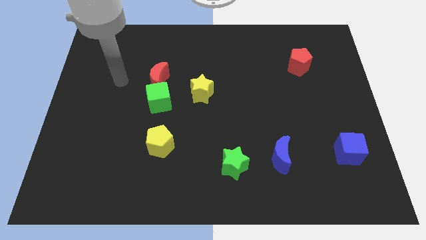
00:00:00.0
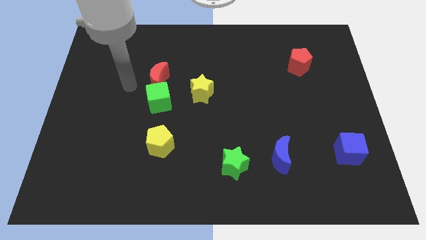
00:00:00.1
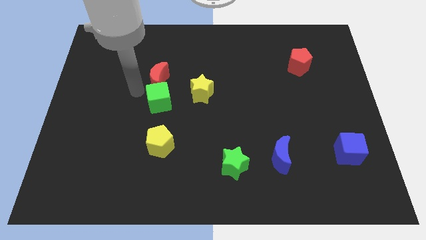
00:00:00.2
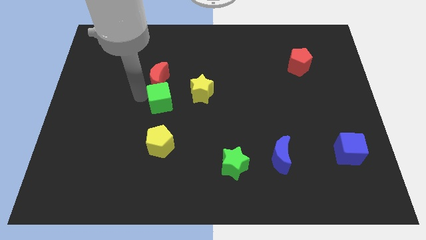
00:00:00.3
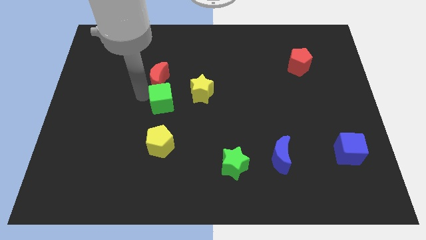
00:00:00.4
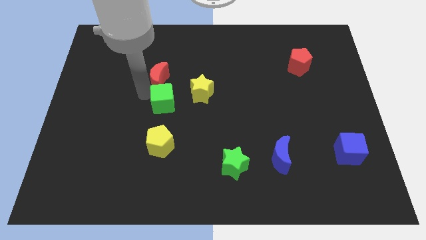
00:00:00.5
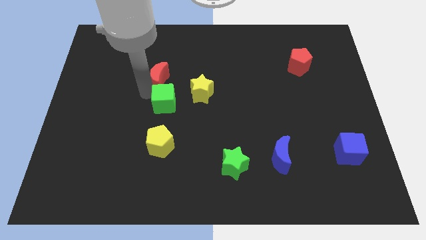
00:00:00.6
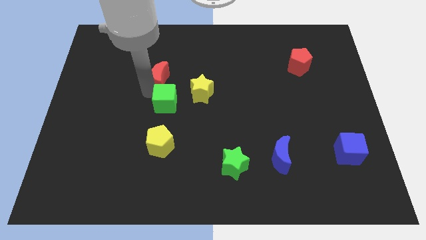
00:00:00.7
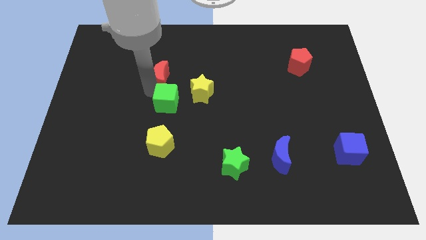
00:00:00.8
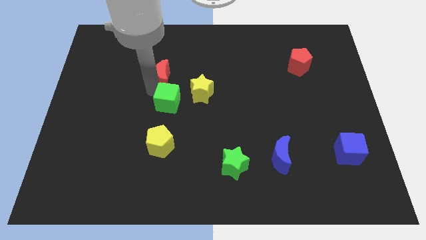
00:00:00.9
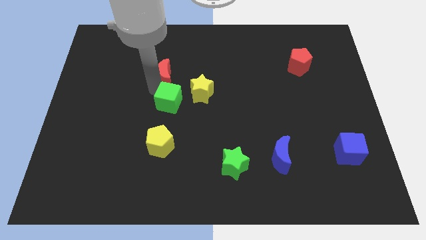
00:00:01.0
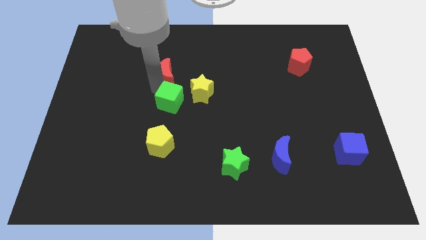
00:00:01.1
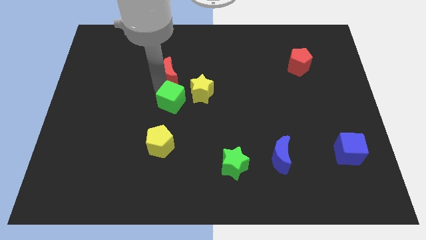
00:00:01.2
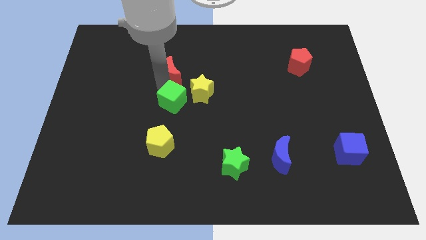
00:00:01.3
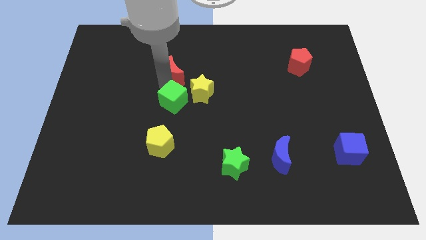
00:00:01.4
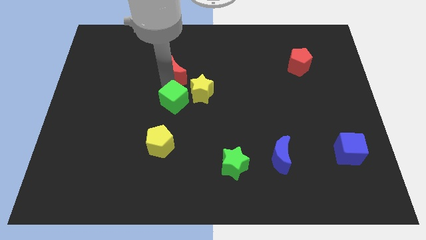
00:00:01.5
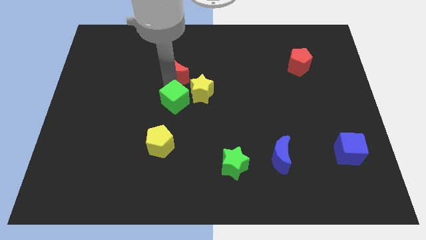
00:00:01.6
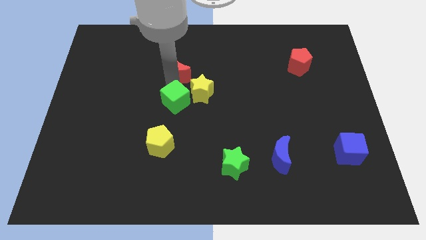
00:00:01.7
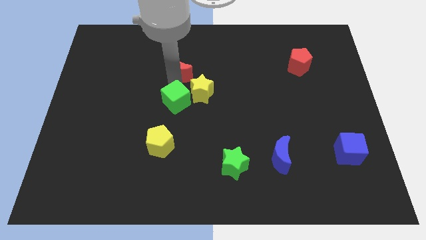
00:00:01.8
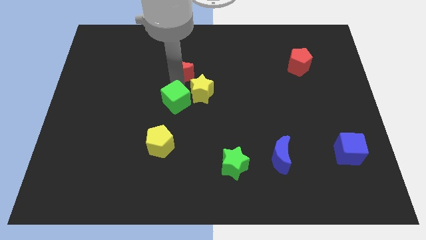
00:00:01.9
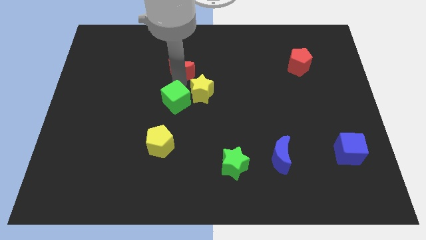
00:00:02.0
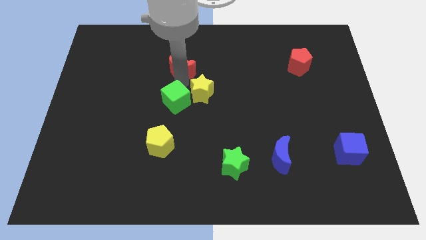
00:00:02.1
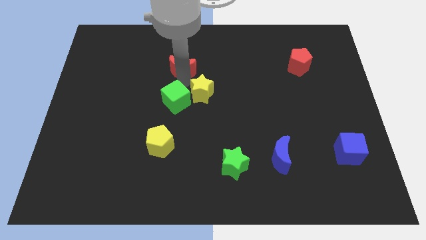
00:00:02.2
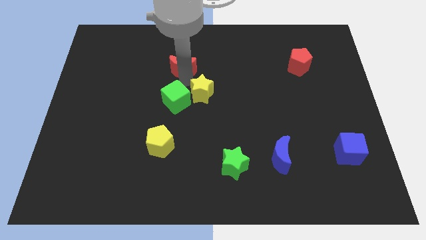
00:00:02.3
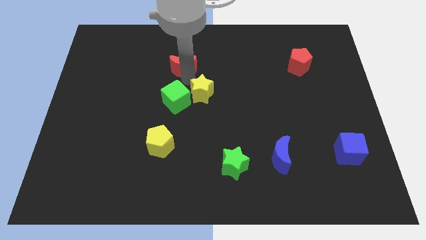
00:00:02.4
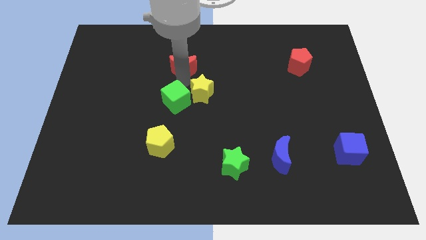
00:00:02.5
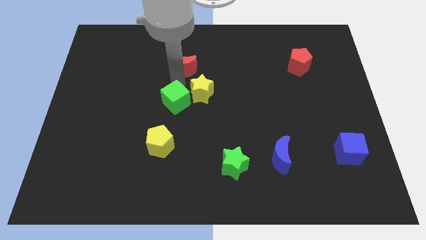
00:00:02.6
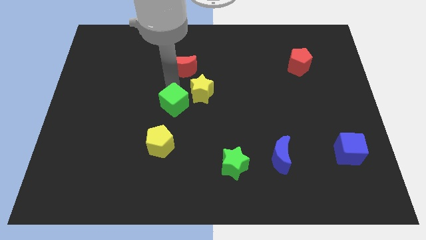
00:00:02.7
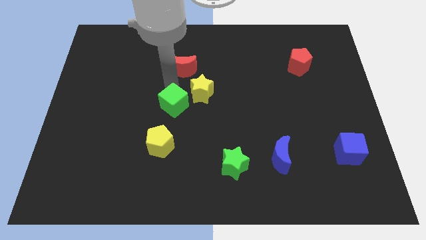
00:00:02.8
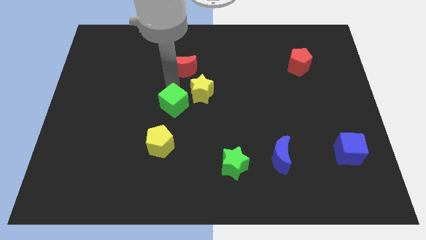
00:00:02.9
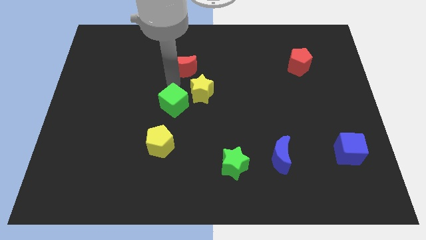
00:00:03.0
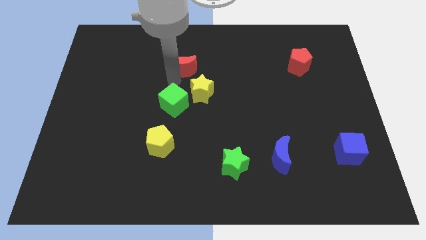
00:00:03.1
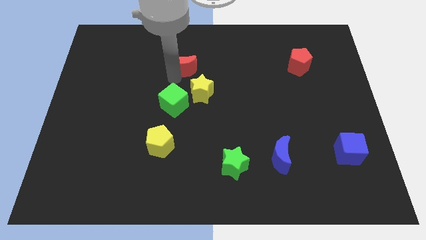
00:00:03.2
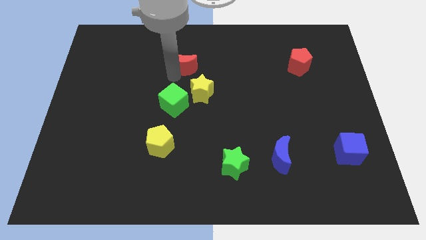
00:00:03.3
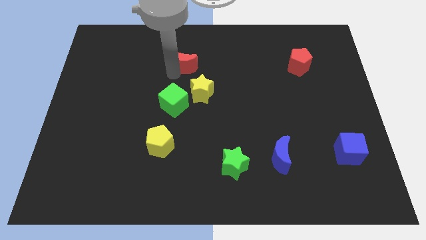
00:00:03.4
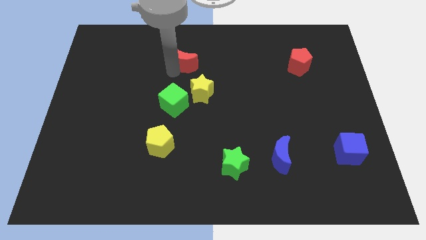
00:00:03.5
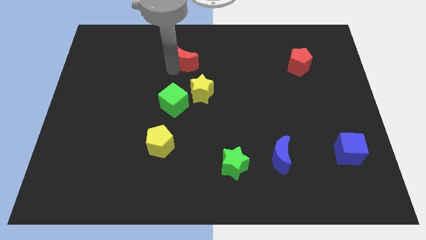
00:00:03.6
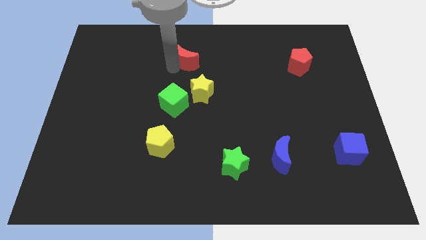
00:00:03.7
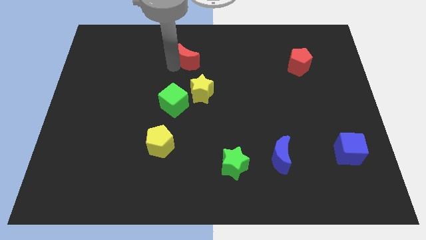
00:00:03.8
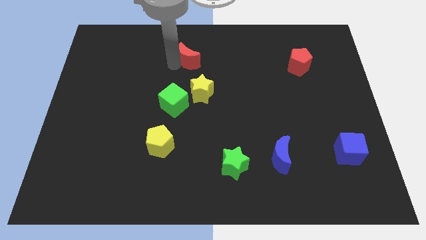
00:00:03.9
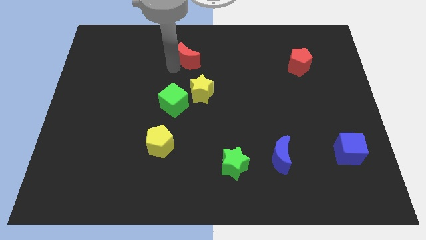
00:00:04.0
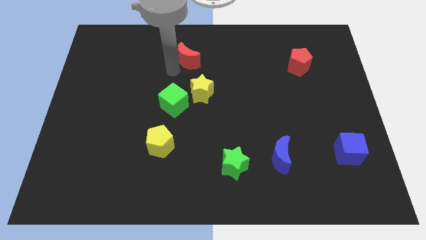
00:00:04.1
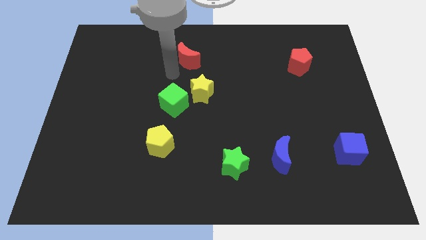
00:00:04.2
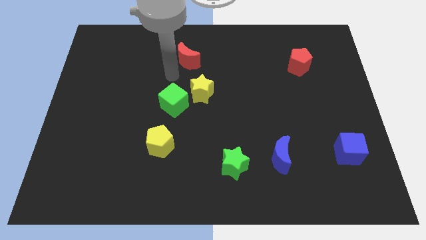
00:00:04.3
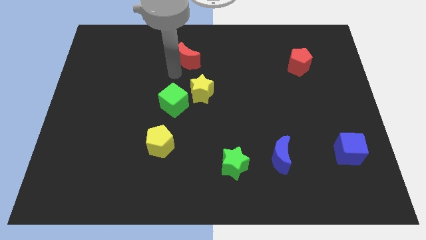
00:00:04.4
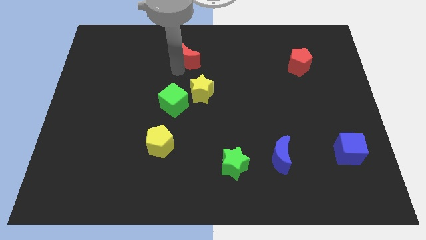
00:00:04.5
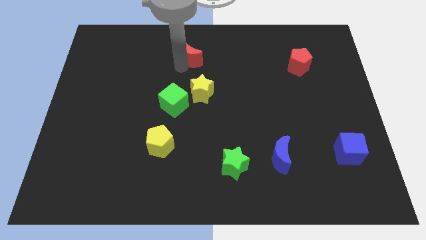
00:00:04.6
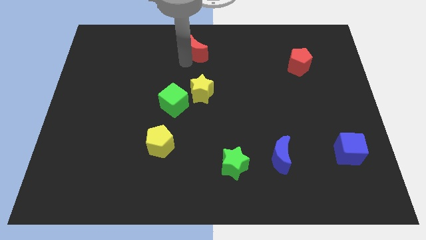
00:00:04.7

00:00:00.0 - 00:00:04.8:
put the red moon to the top side

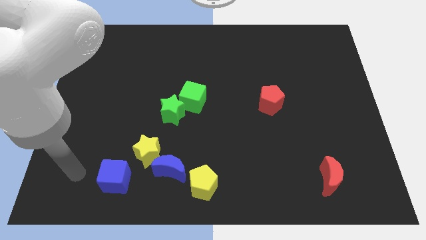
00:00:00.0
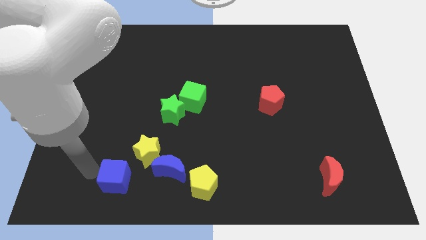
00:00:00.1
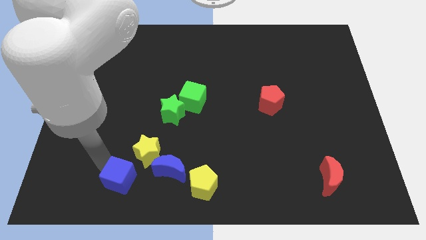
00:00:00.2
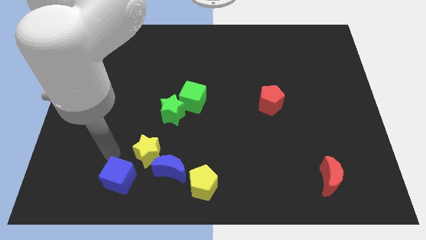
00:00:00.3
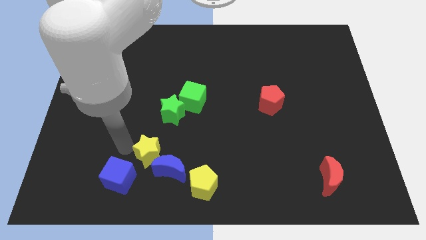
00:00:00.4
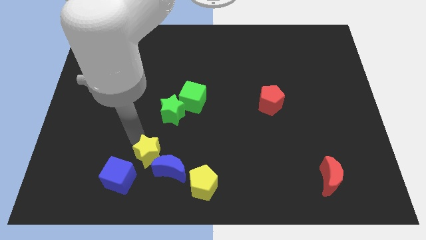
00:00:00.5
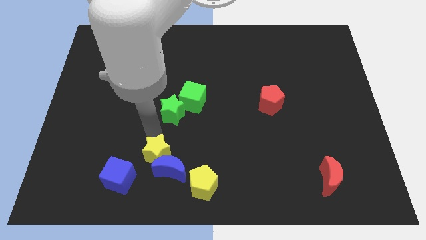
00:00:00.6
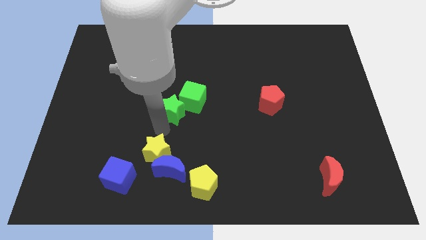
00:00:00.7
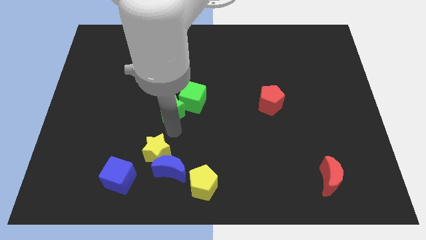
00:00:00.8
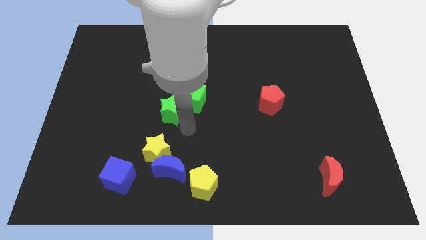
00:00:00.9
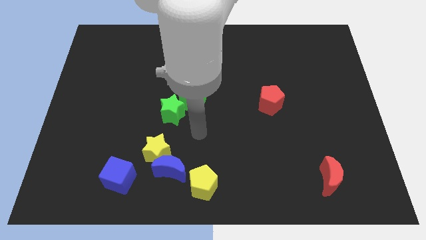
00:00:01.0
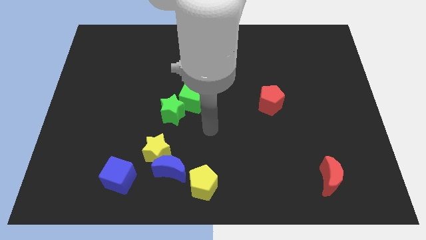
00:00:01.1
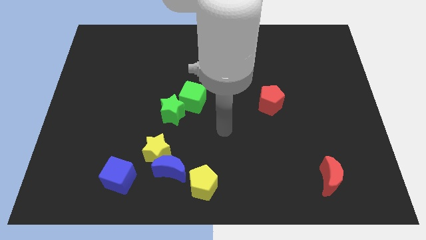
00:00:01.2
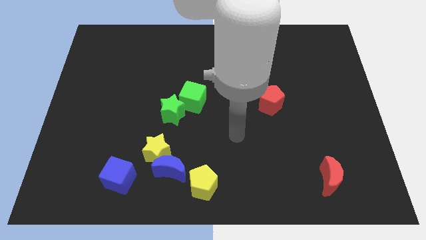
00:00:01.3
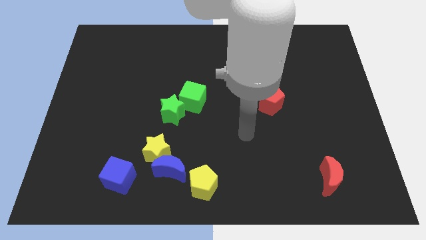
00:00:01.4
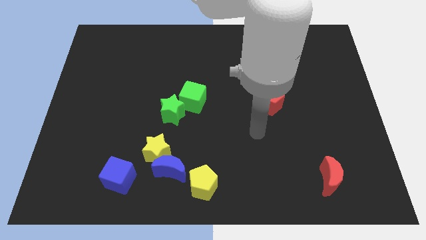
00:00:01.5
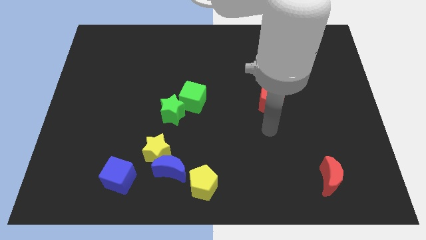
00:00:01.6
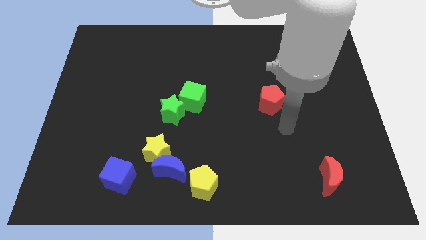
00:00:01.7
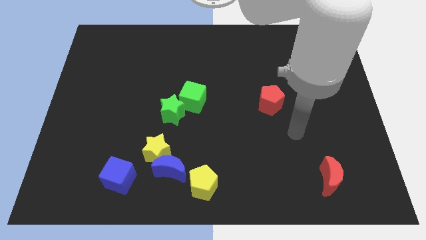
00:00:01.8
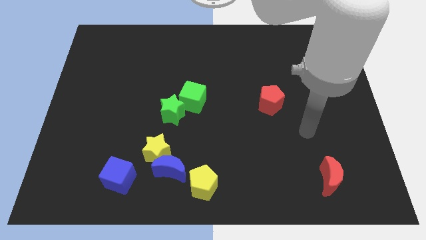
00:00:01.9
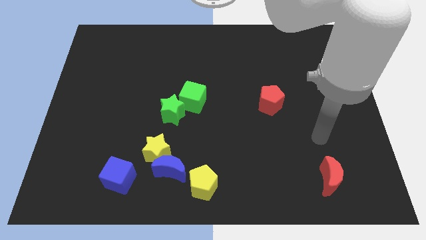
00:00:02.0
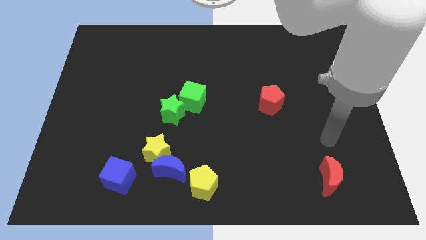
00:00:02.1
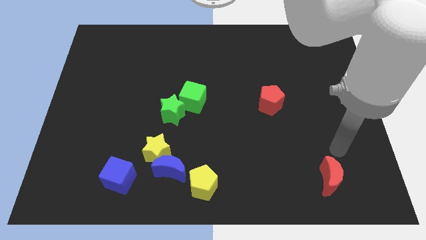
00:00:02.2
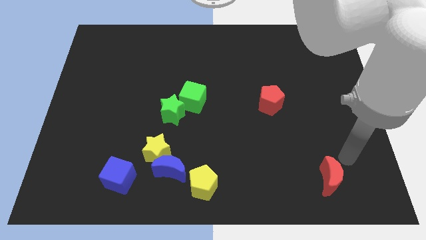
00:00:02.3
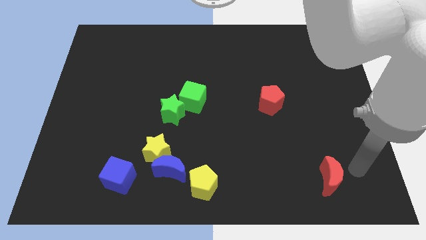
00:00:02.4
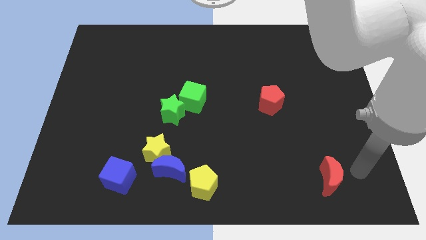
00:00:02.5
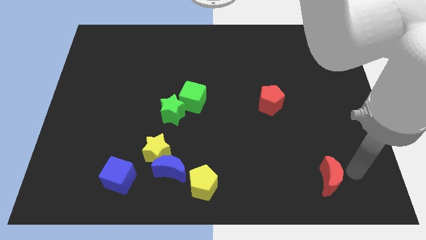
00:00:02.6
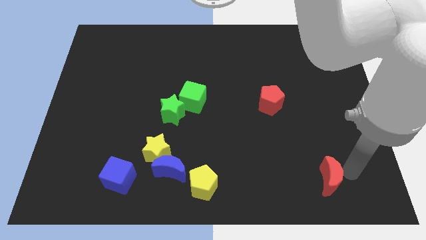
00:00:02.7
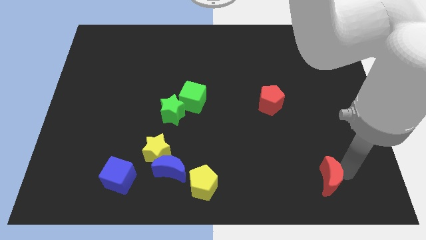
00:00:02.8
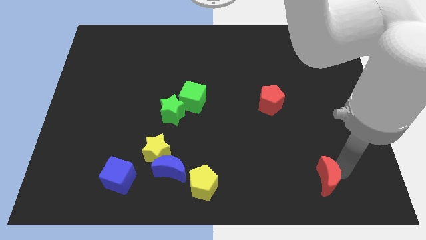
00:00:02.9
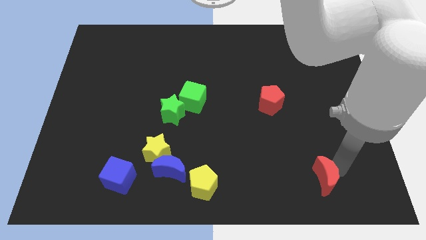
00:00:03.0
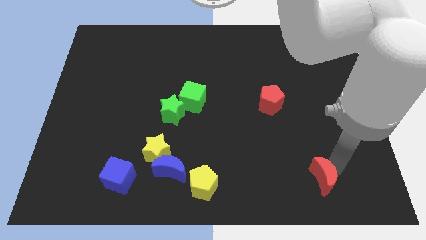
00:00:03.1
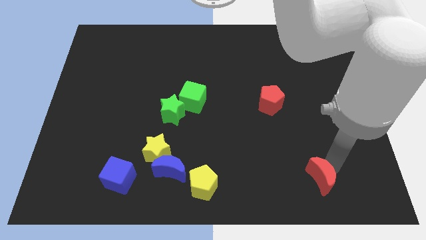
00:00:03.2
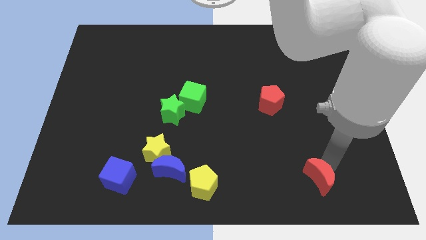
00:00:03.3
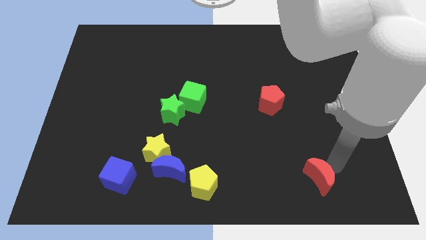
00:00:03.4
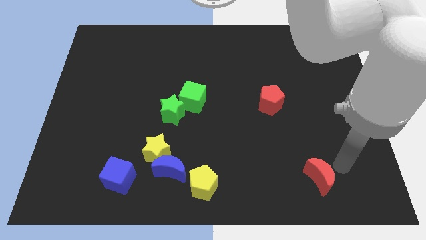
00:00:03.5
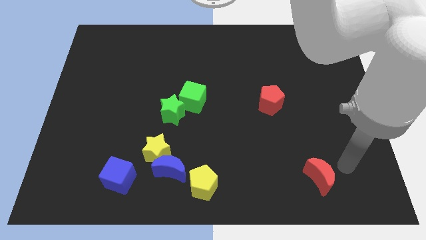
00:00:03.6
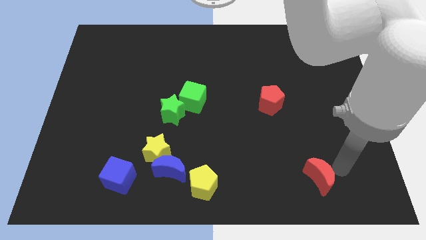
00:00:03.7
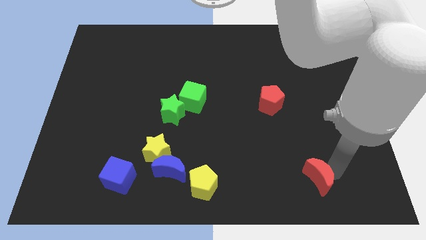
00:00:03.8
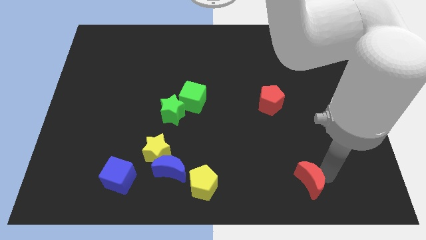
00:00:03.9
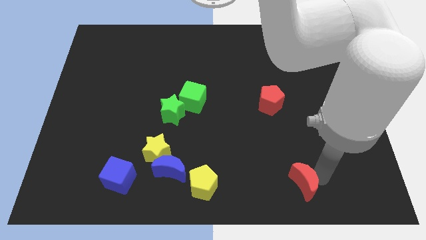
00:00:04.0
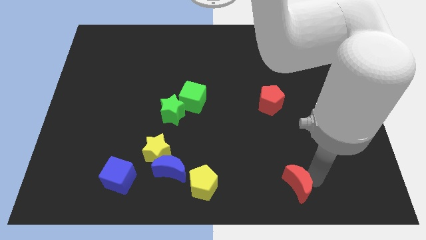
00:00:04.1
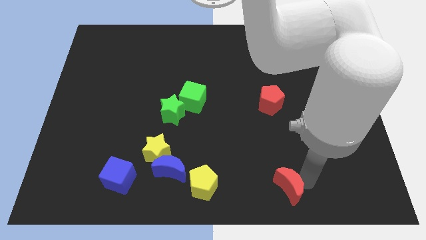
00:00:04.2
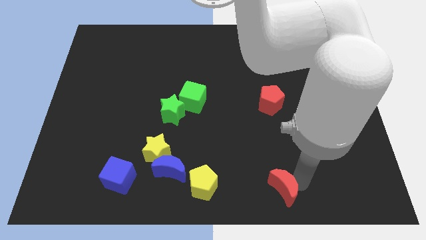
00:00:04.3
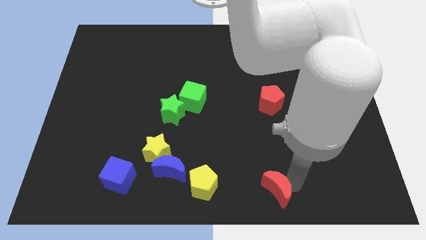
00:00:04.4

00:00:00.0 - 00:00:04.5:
slide the red moon to the bottom
